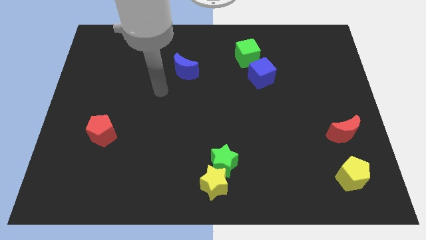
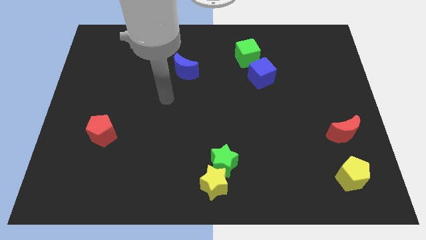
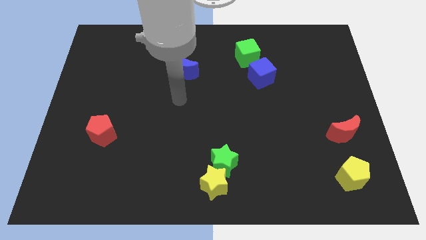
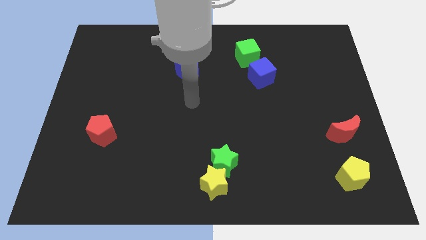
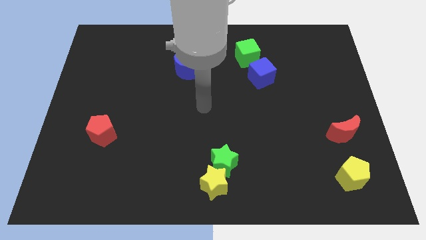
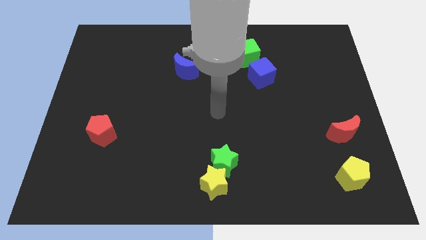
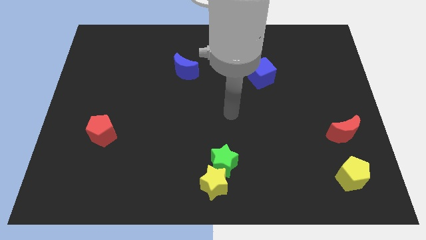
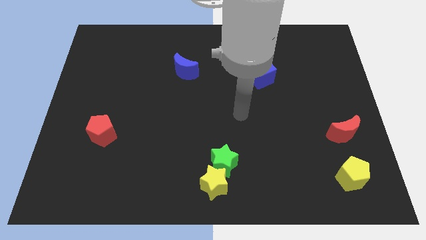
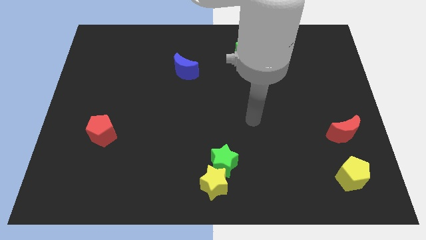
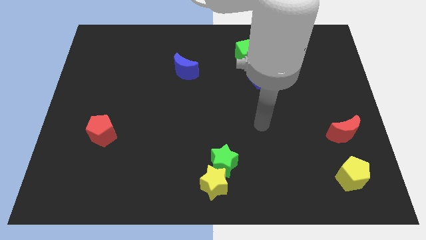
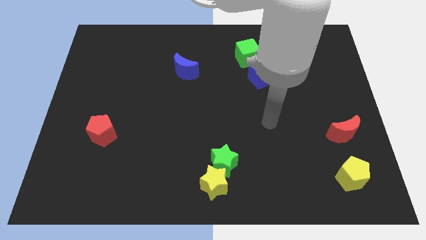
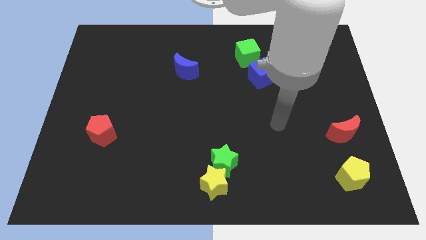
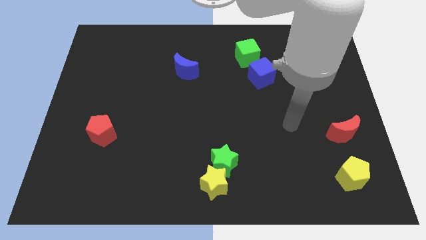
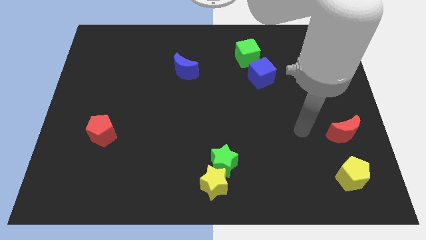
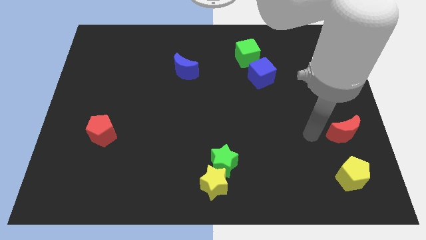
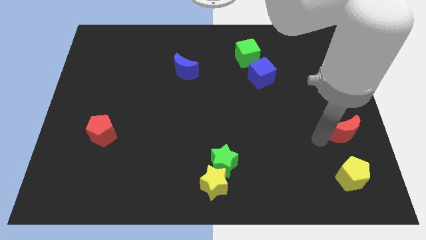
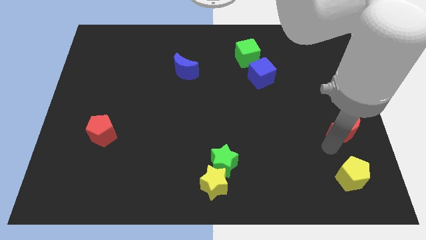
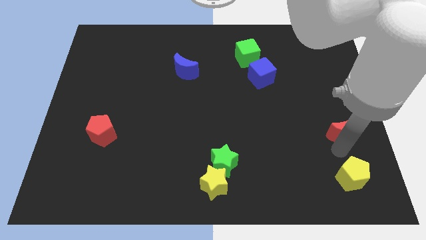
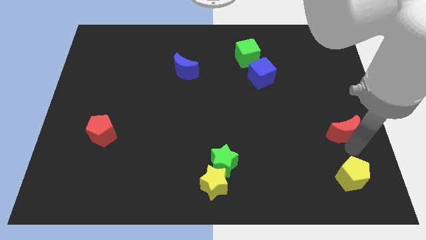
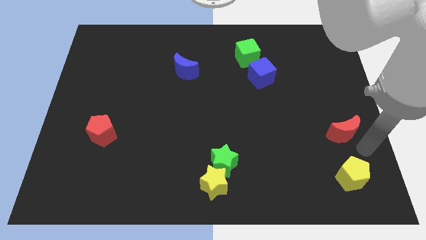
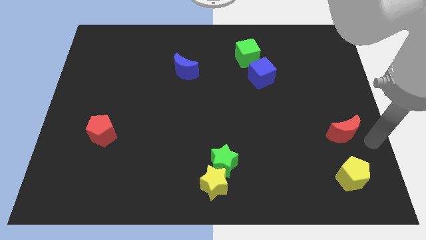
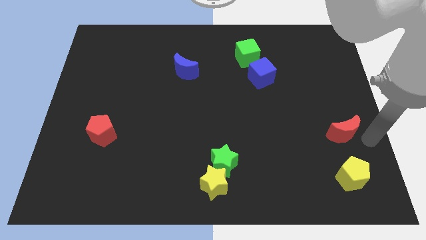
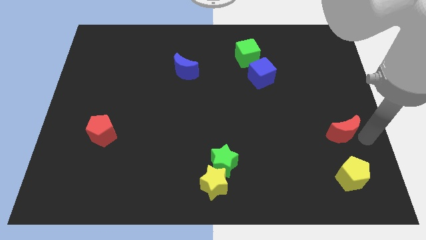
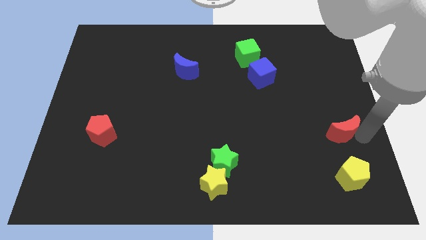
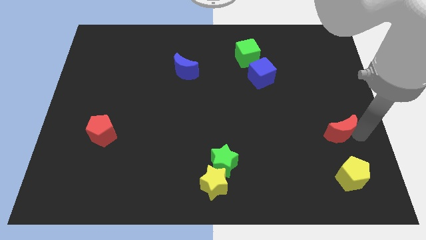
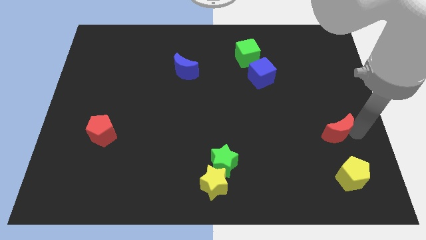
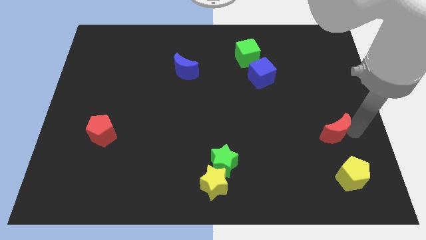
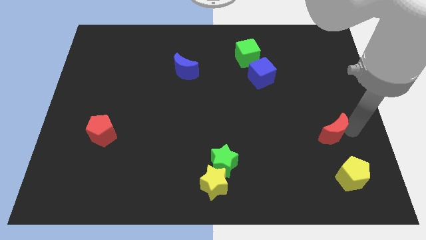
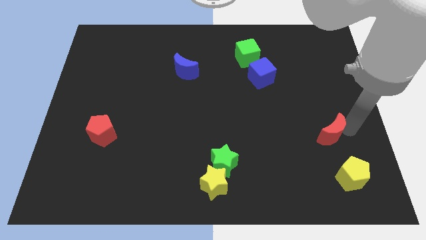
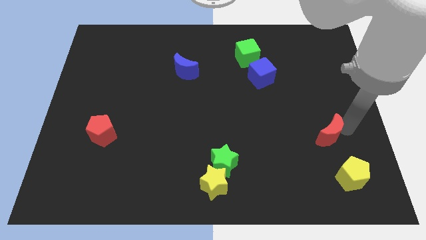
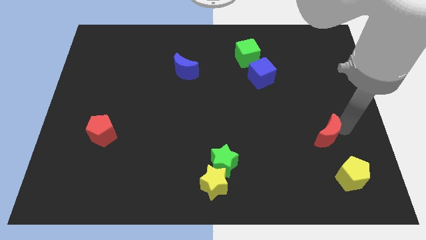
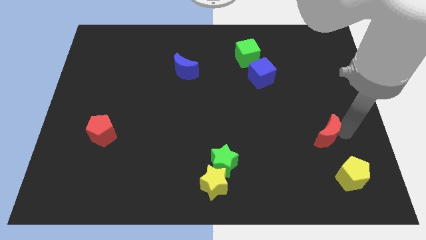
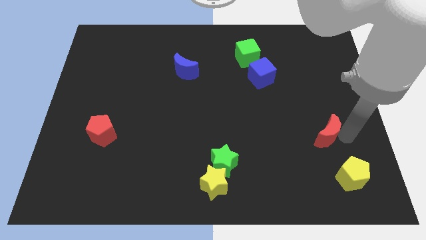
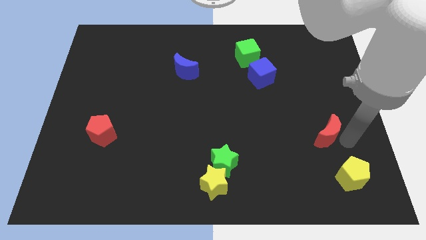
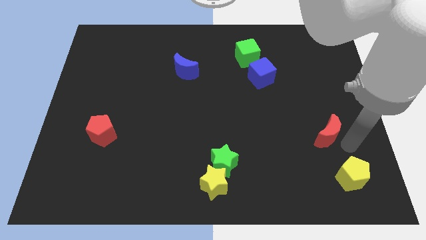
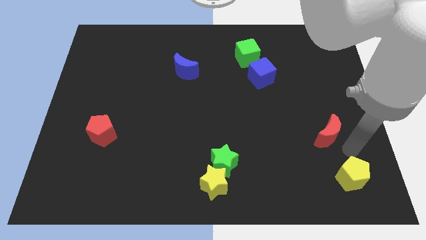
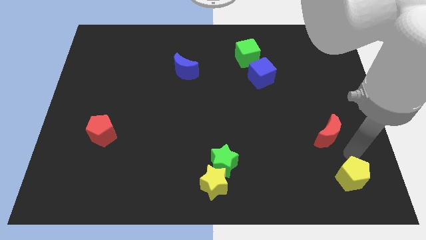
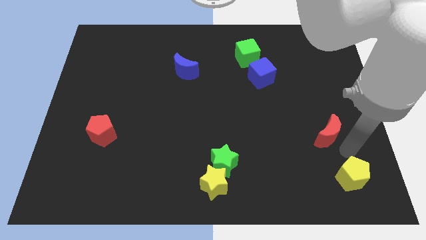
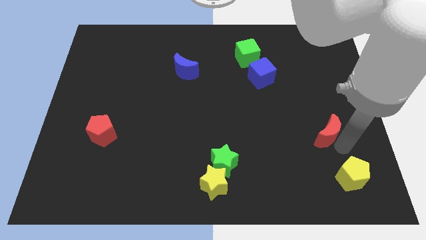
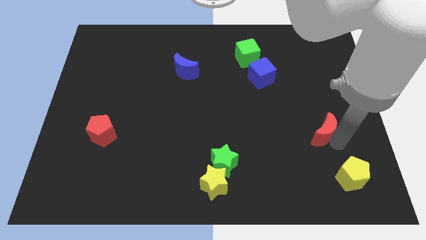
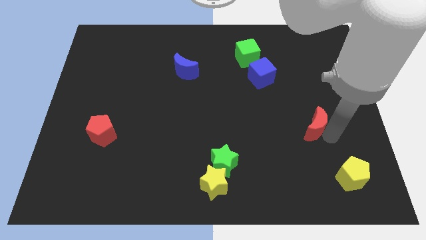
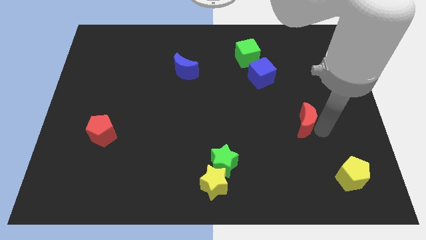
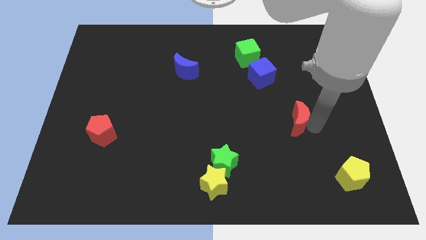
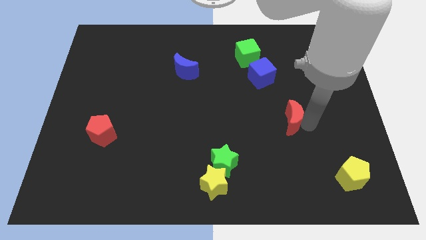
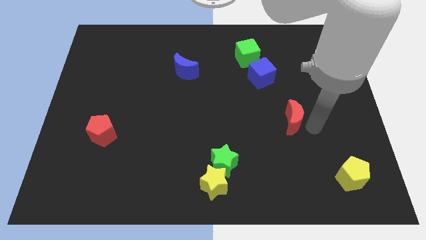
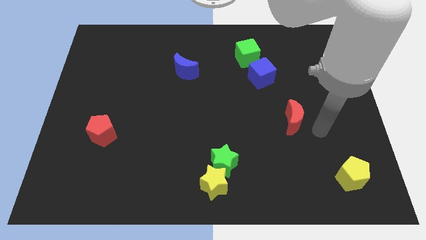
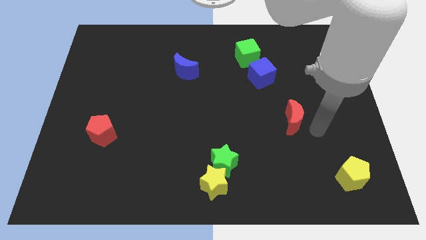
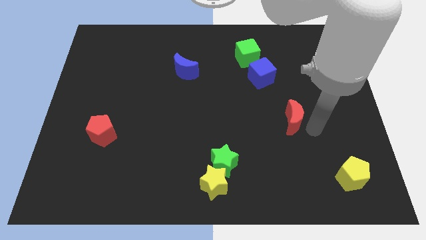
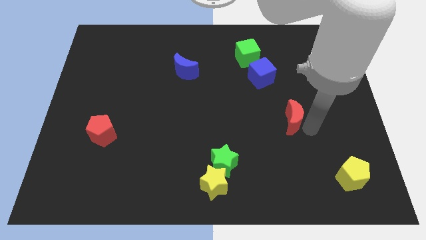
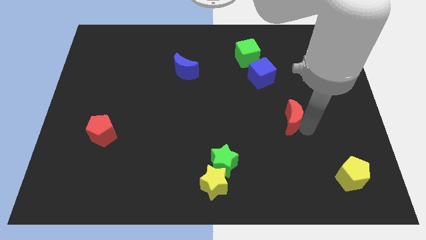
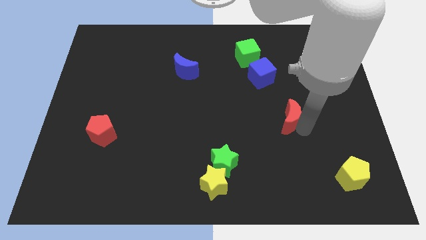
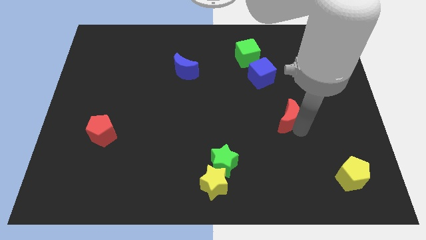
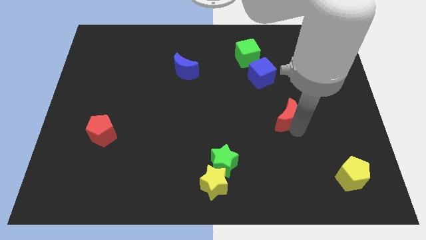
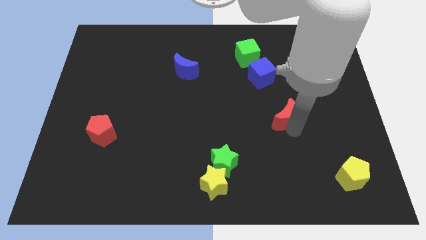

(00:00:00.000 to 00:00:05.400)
slide the red moon to the bottom of the blue cube

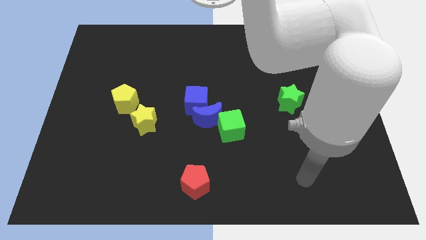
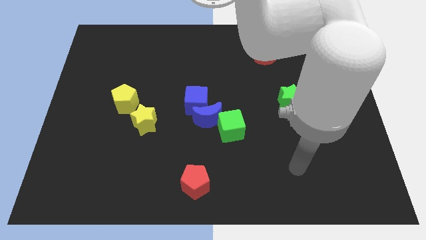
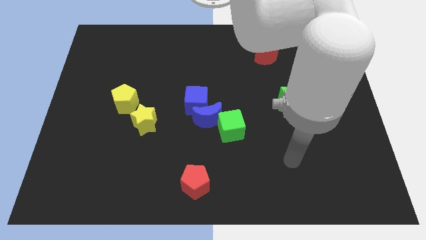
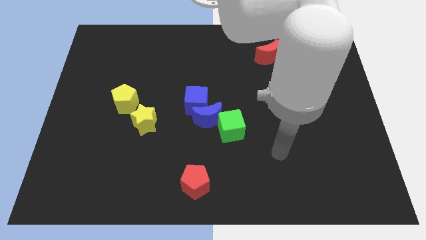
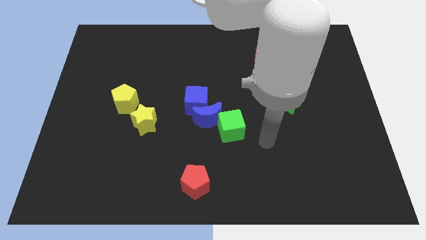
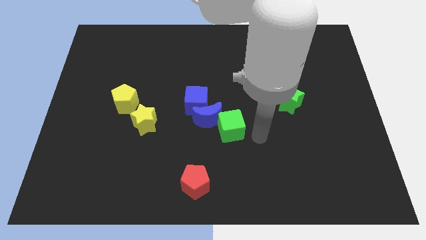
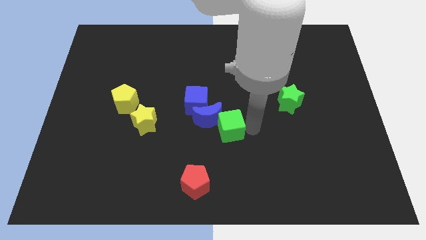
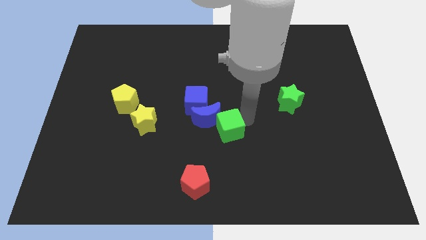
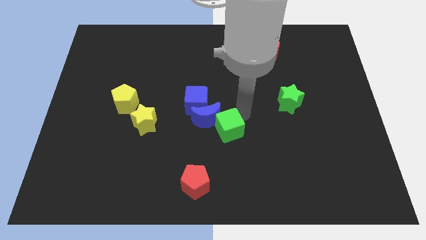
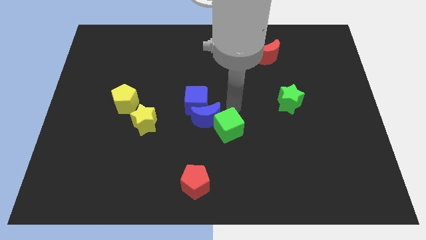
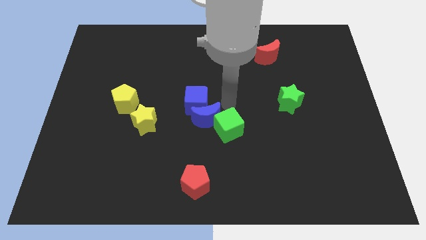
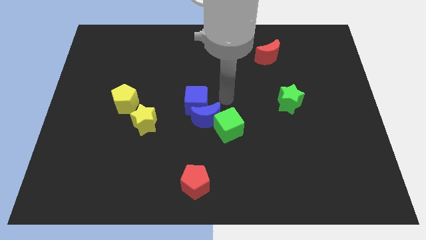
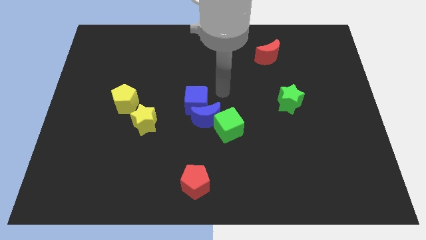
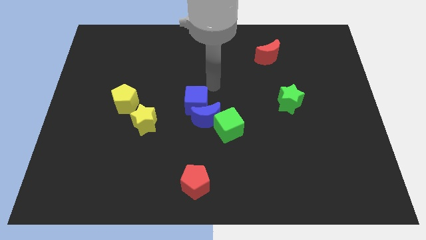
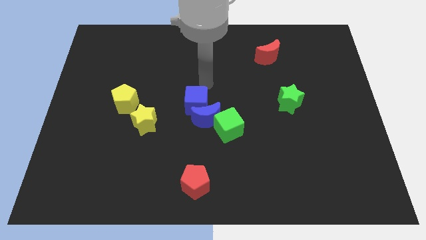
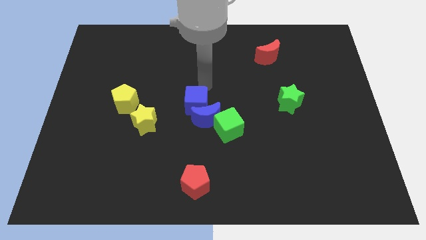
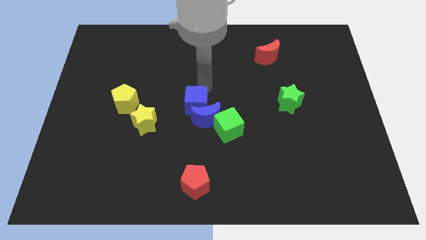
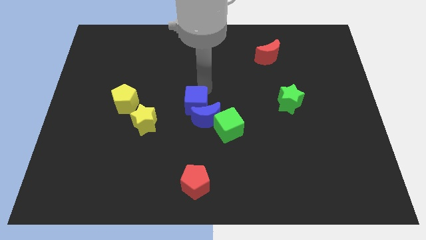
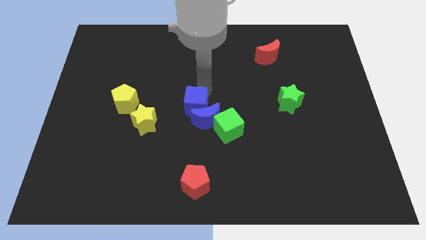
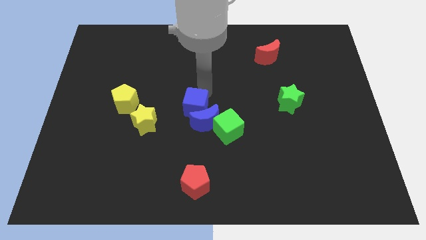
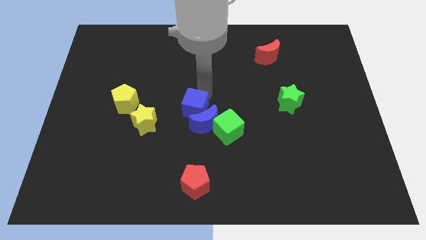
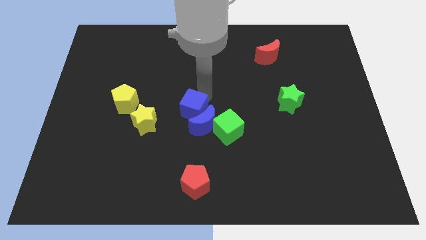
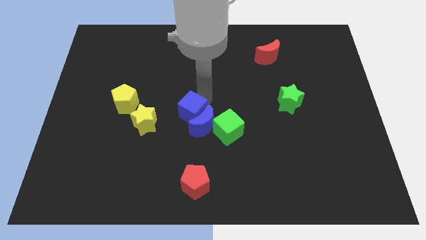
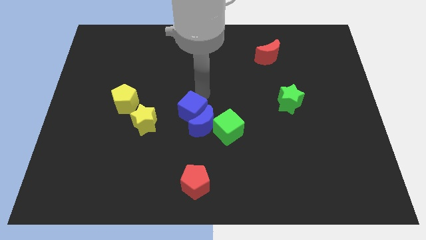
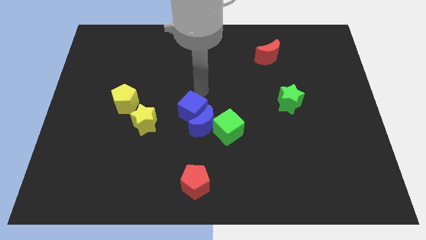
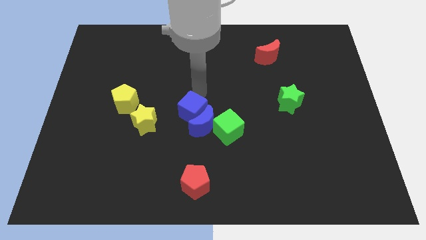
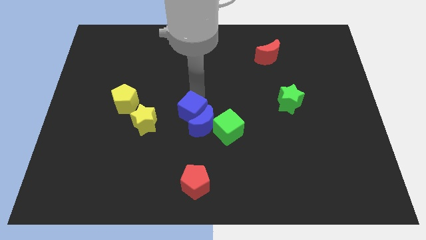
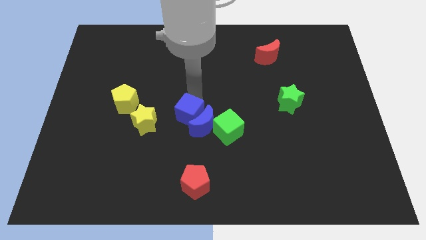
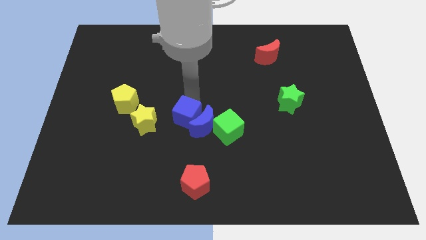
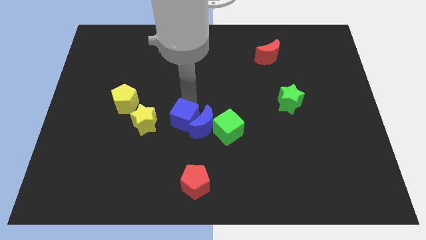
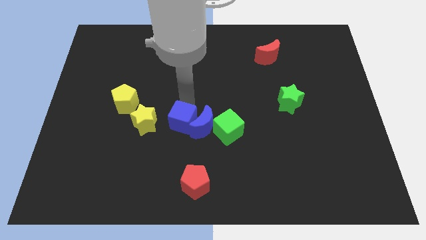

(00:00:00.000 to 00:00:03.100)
slide the blue cube diagonally down and to the left of the blue moon
